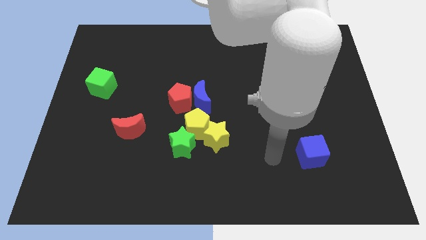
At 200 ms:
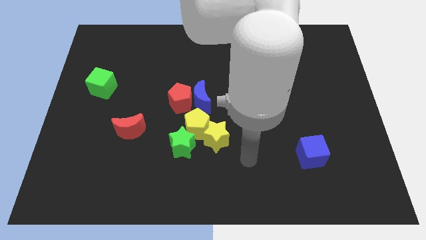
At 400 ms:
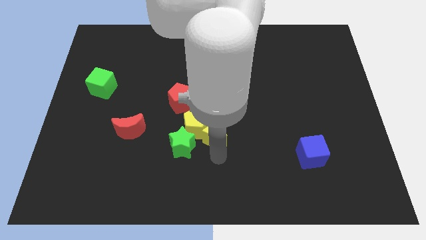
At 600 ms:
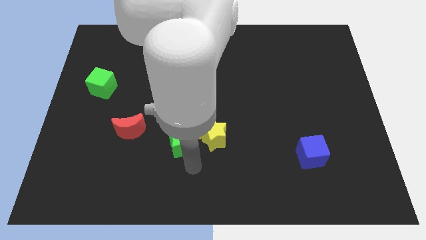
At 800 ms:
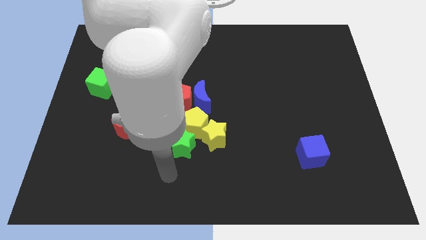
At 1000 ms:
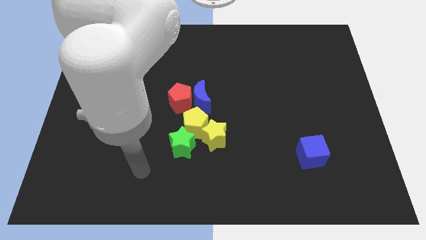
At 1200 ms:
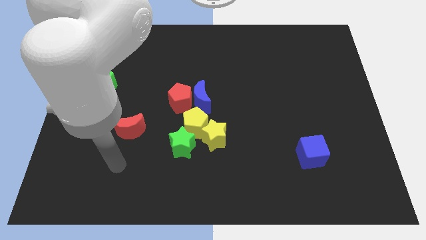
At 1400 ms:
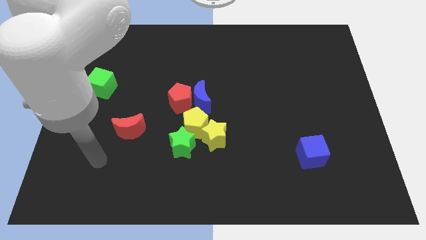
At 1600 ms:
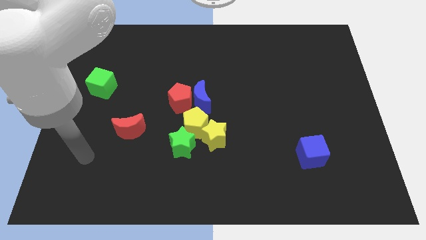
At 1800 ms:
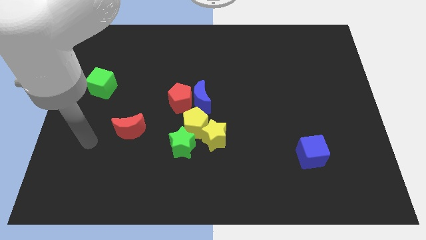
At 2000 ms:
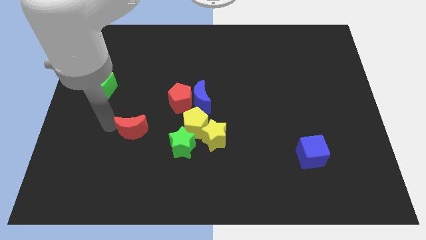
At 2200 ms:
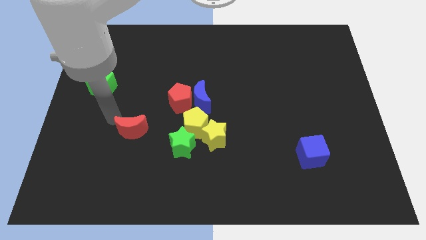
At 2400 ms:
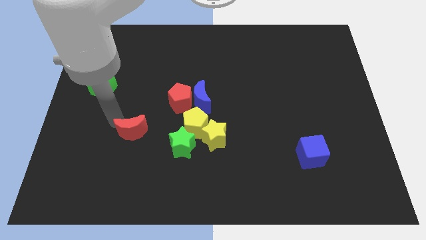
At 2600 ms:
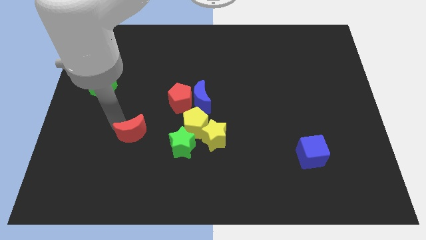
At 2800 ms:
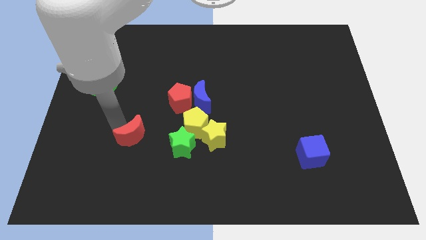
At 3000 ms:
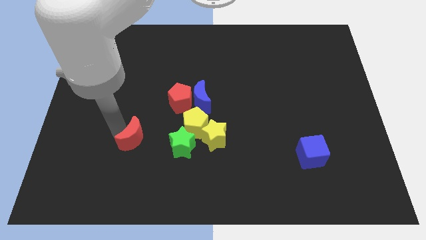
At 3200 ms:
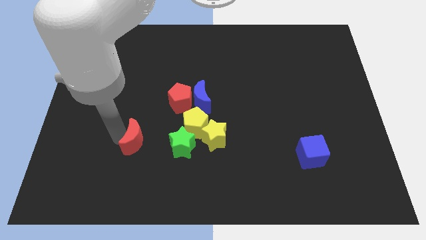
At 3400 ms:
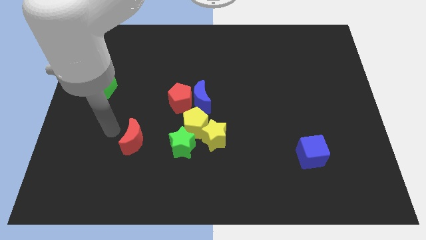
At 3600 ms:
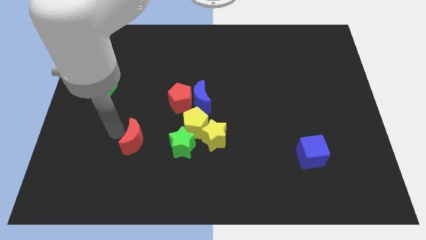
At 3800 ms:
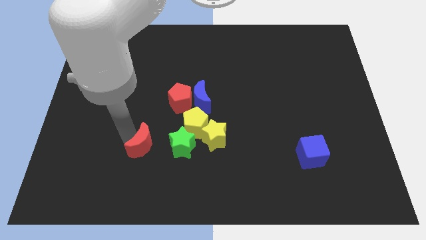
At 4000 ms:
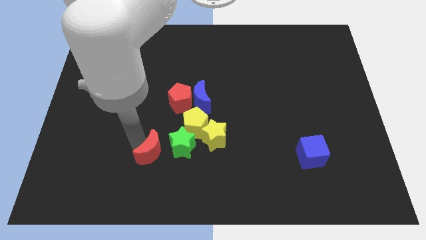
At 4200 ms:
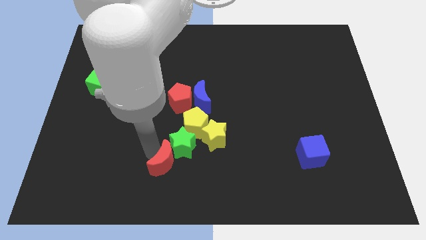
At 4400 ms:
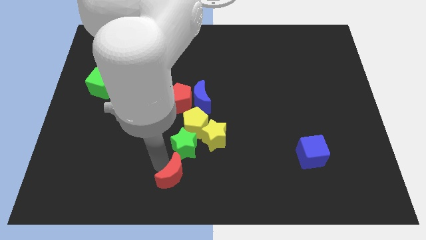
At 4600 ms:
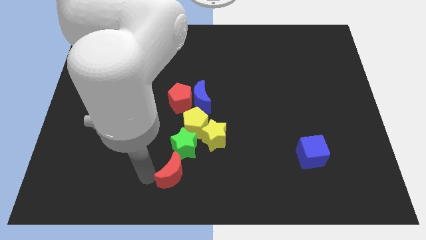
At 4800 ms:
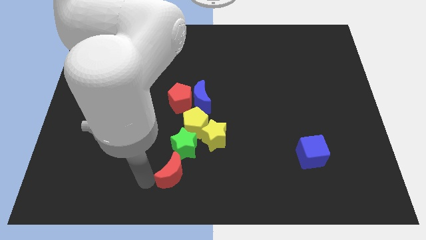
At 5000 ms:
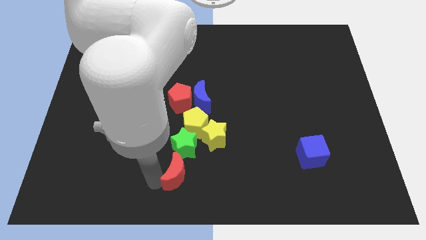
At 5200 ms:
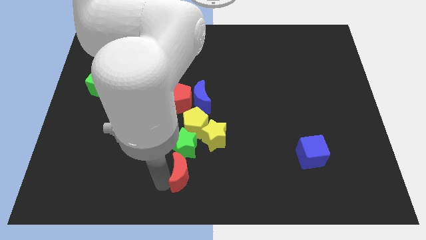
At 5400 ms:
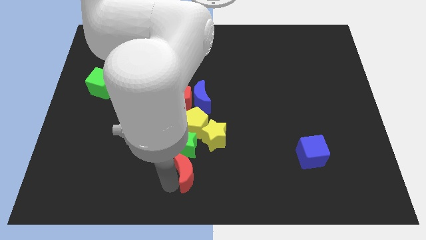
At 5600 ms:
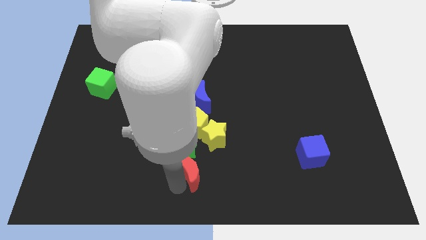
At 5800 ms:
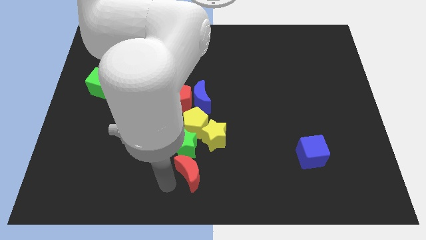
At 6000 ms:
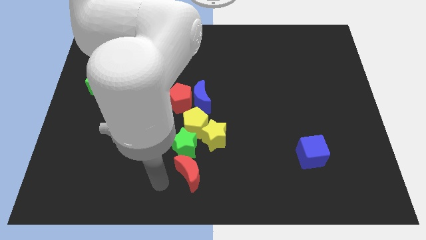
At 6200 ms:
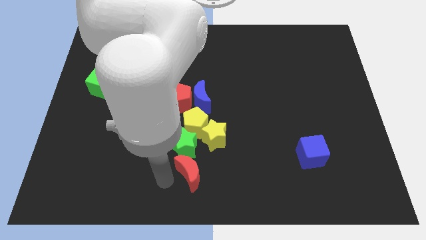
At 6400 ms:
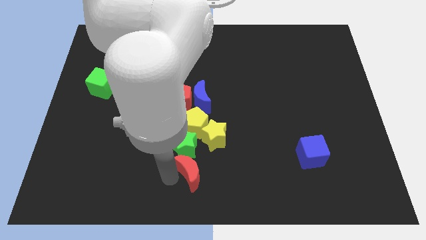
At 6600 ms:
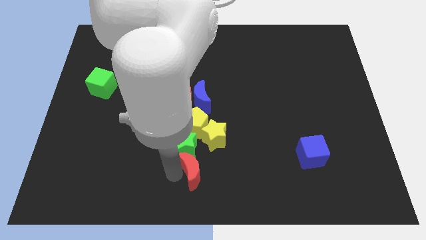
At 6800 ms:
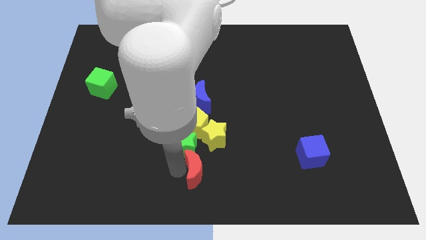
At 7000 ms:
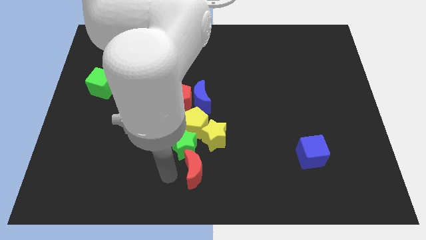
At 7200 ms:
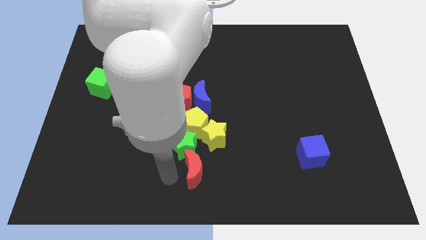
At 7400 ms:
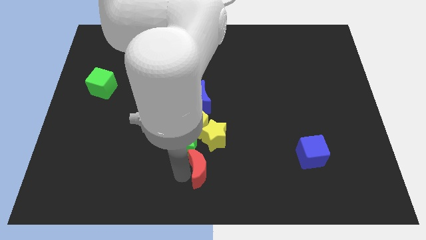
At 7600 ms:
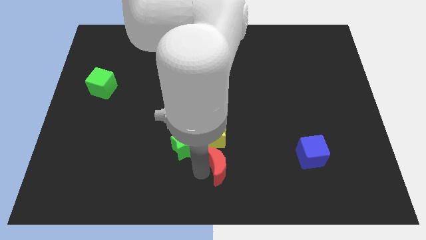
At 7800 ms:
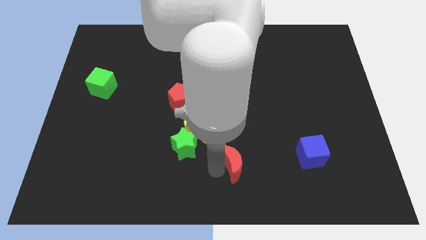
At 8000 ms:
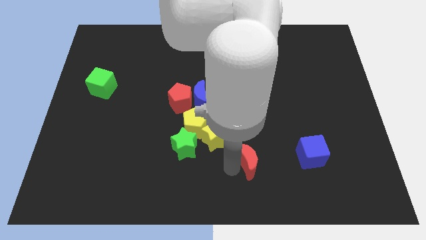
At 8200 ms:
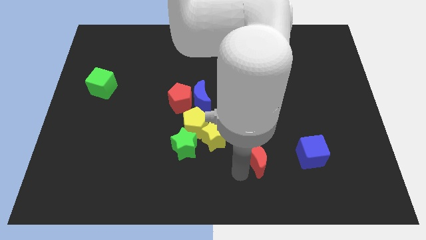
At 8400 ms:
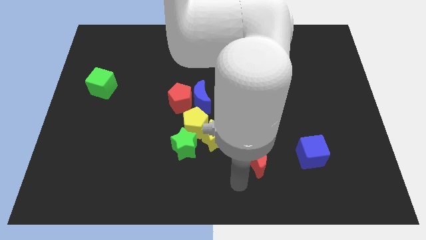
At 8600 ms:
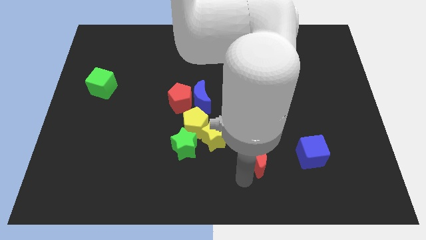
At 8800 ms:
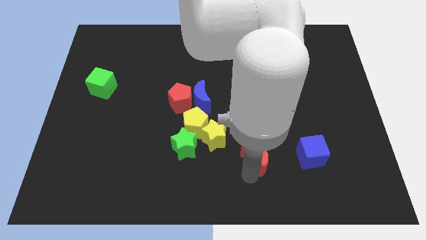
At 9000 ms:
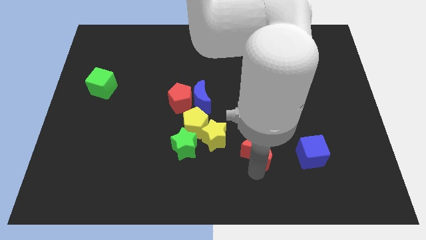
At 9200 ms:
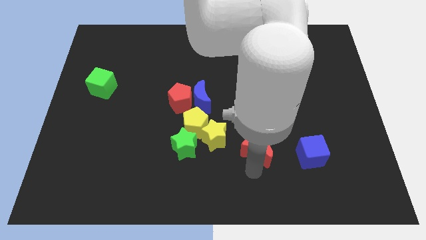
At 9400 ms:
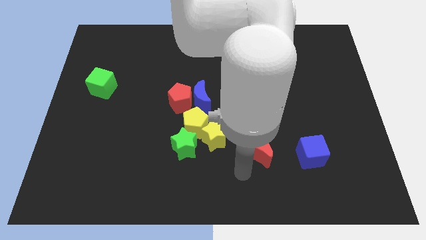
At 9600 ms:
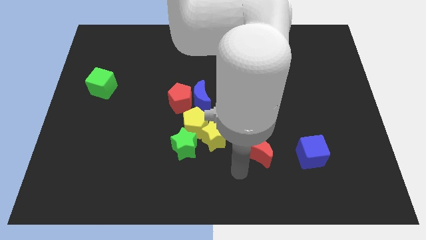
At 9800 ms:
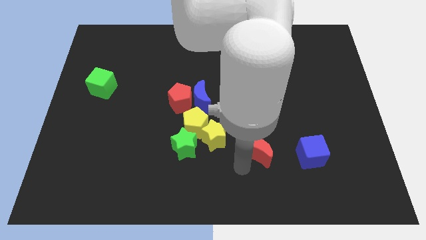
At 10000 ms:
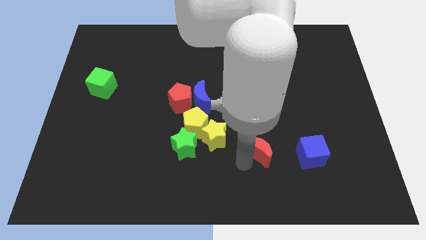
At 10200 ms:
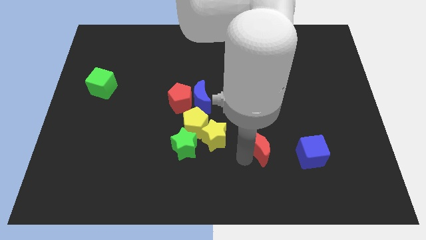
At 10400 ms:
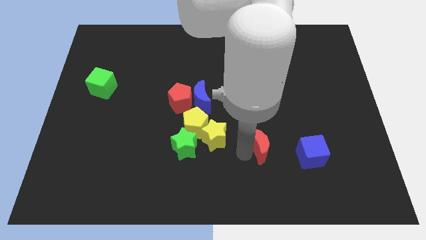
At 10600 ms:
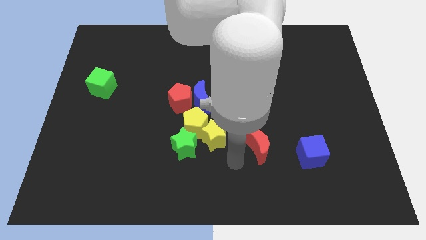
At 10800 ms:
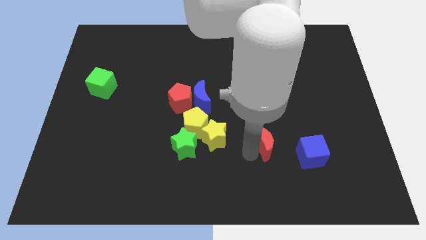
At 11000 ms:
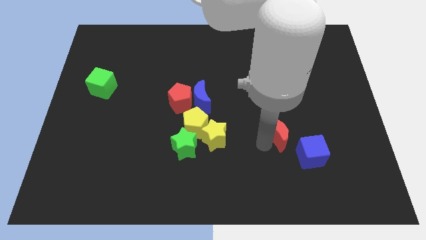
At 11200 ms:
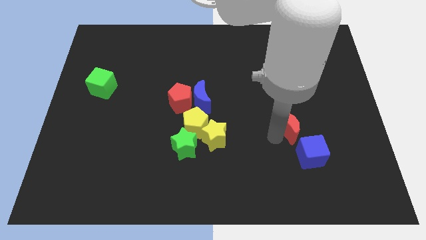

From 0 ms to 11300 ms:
slide the red moon to the top side of the blue cube

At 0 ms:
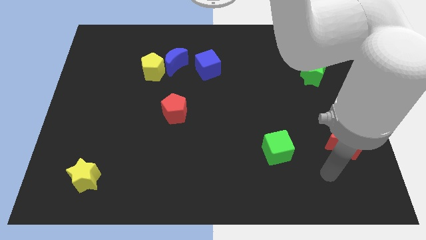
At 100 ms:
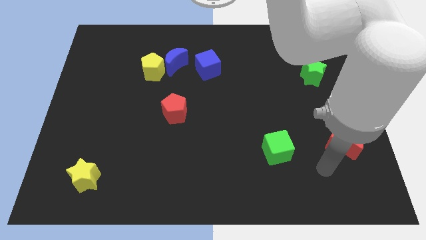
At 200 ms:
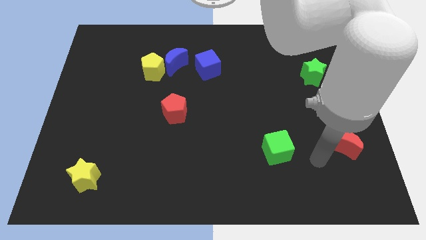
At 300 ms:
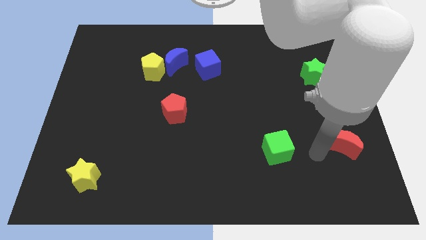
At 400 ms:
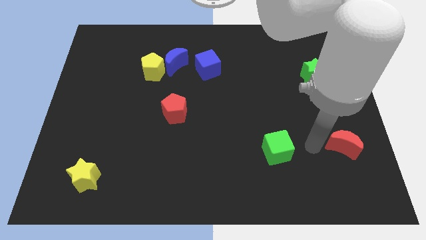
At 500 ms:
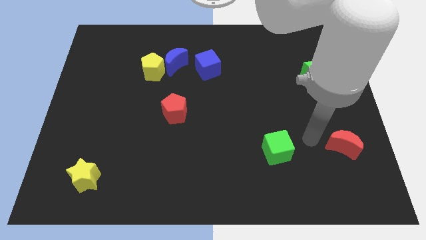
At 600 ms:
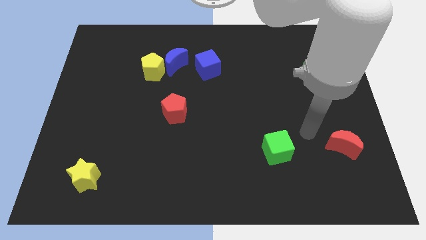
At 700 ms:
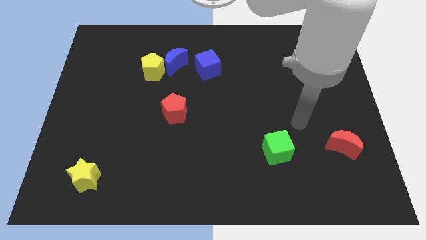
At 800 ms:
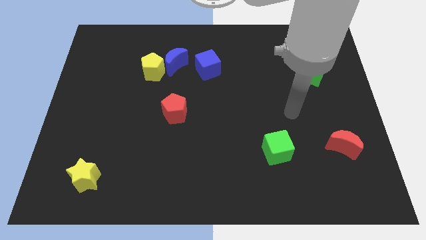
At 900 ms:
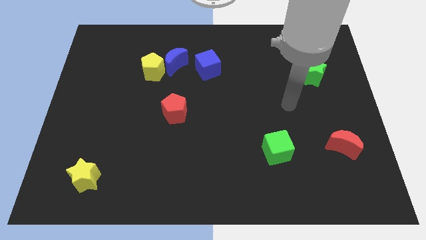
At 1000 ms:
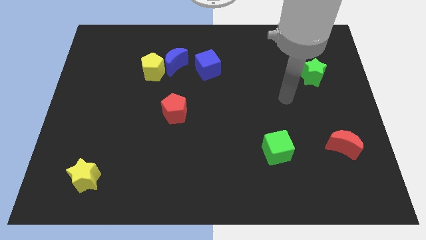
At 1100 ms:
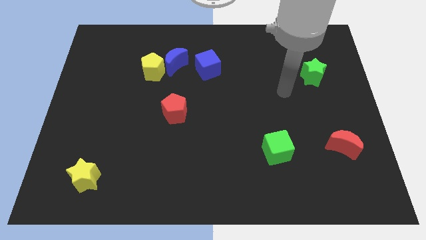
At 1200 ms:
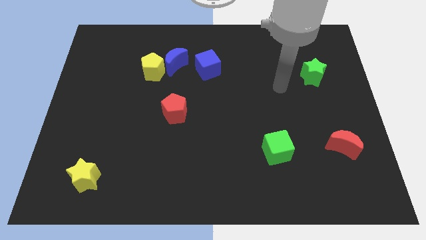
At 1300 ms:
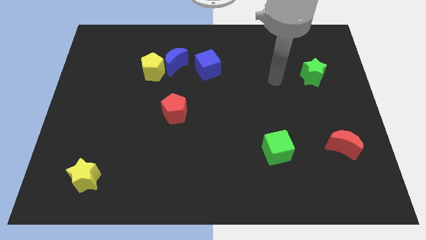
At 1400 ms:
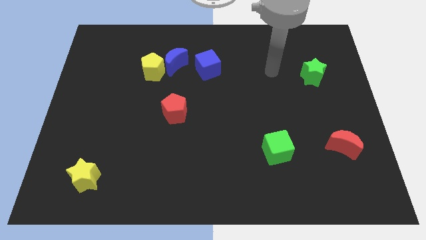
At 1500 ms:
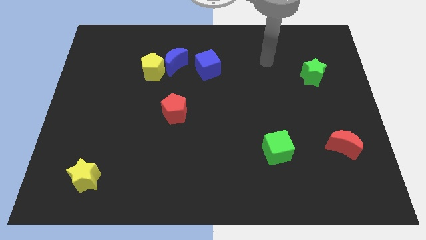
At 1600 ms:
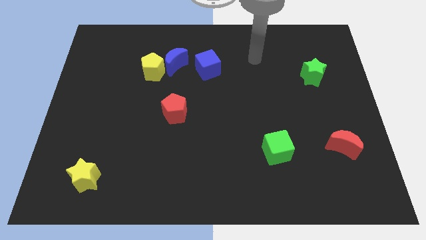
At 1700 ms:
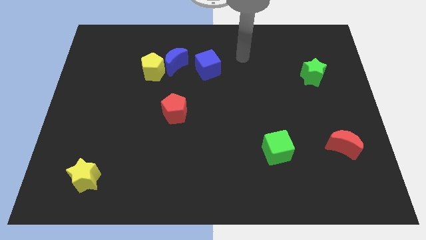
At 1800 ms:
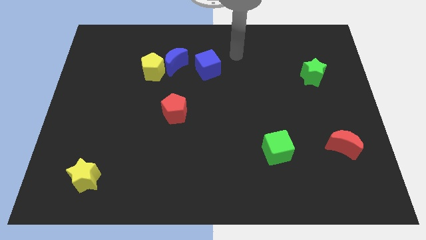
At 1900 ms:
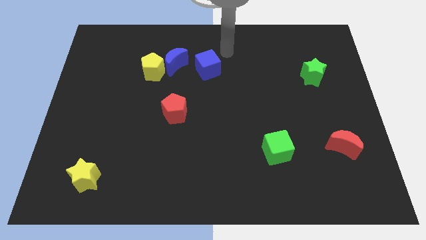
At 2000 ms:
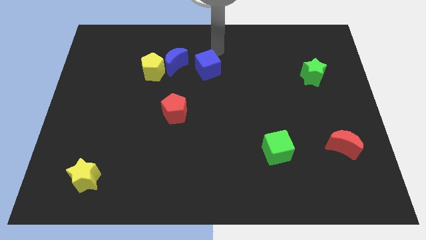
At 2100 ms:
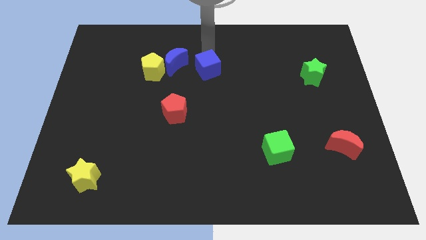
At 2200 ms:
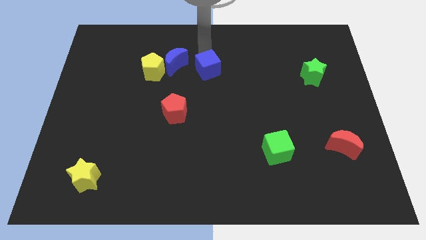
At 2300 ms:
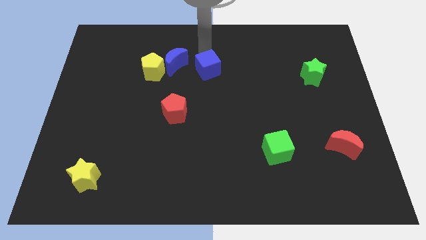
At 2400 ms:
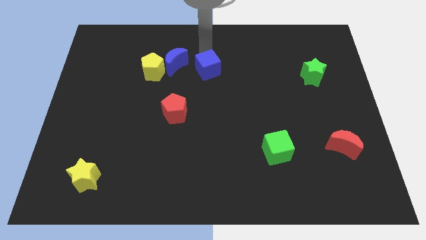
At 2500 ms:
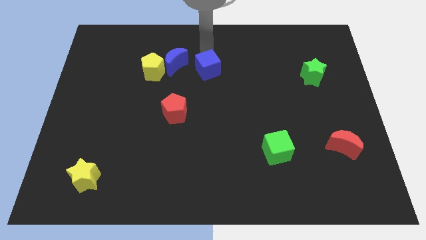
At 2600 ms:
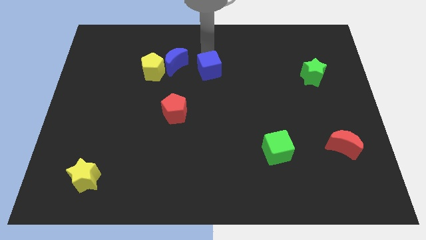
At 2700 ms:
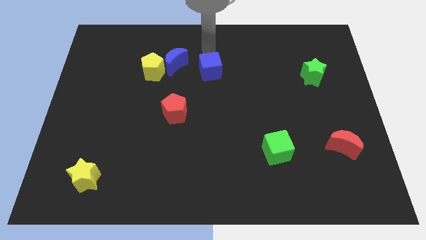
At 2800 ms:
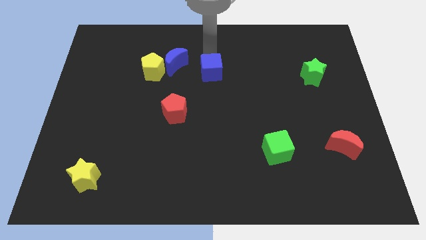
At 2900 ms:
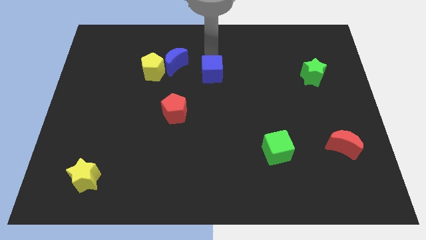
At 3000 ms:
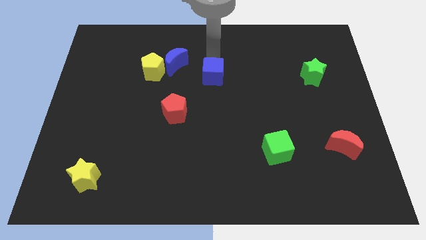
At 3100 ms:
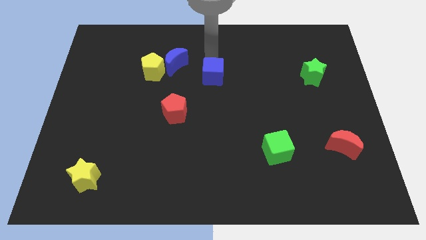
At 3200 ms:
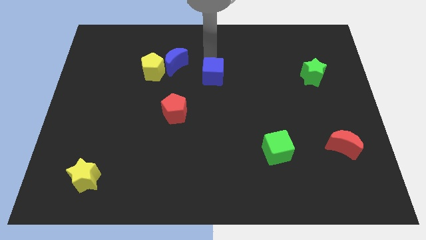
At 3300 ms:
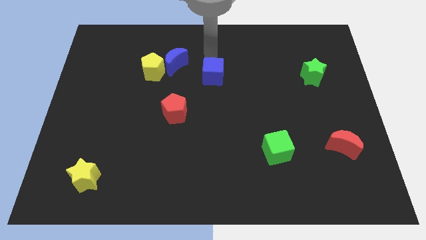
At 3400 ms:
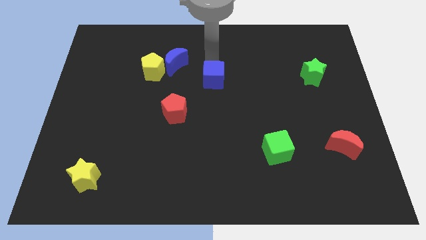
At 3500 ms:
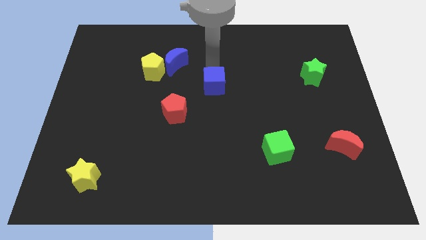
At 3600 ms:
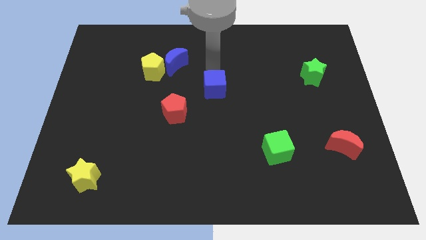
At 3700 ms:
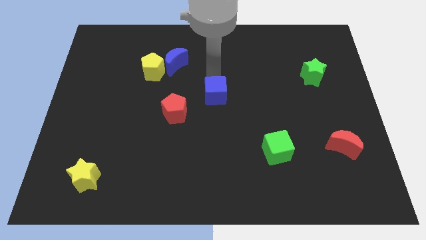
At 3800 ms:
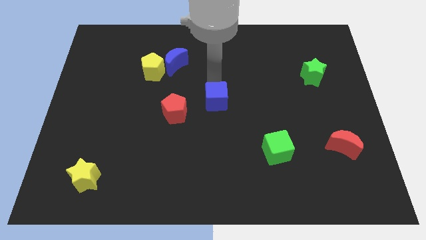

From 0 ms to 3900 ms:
put the blue cube to the right side of the red pentagon
